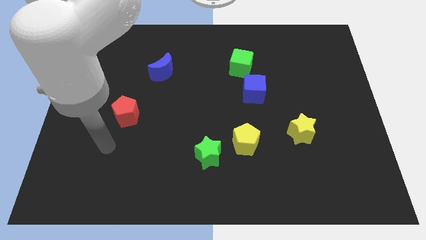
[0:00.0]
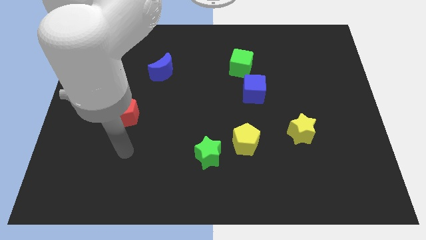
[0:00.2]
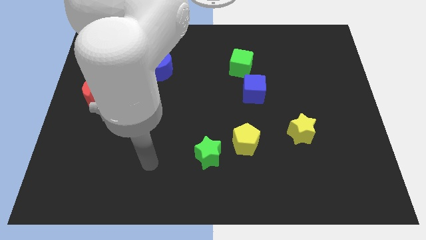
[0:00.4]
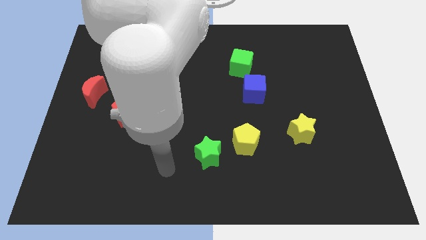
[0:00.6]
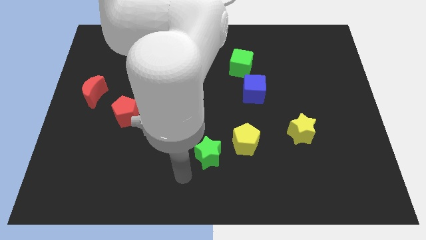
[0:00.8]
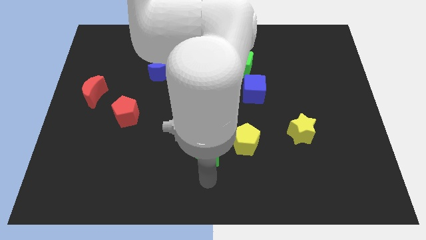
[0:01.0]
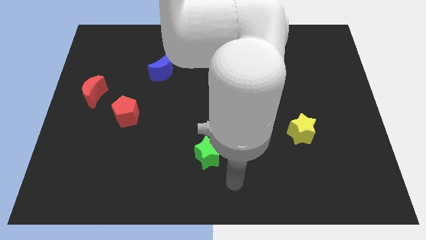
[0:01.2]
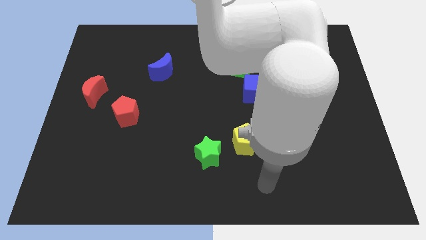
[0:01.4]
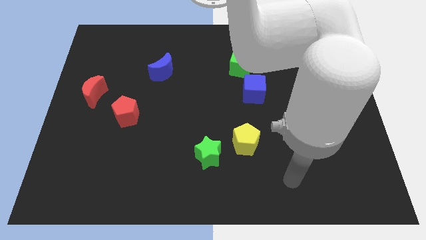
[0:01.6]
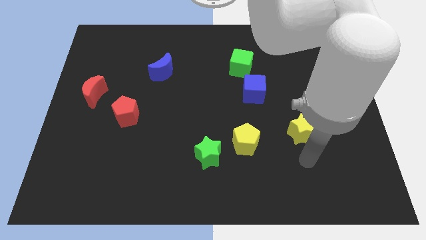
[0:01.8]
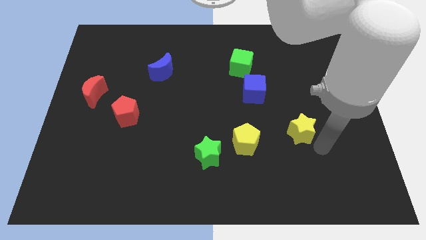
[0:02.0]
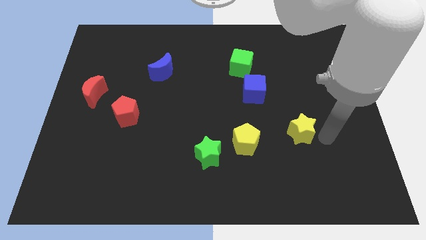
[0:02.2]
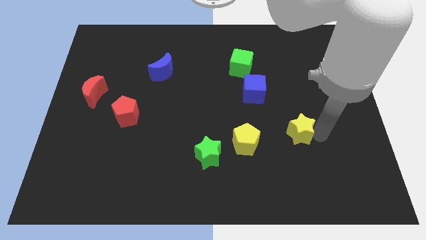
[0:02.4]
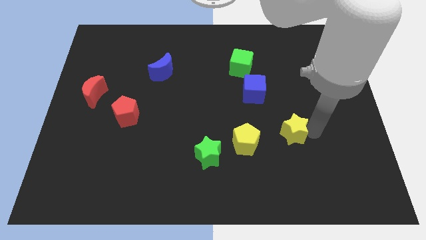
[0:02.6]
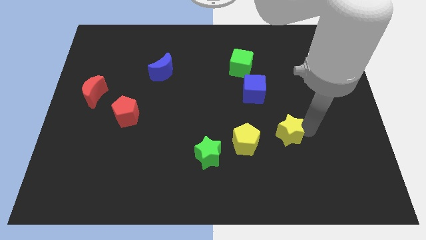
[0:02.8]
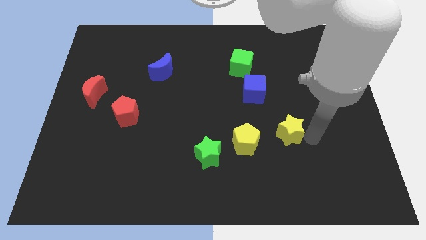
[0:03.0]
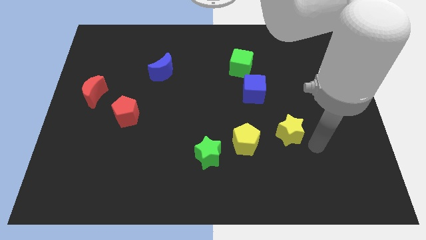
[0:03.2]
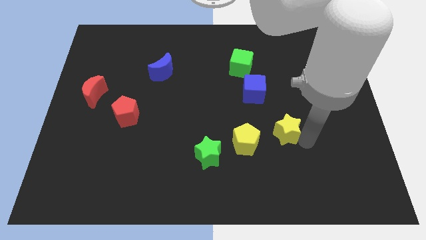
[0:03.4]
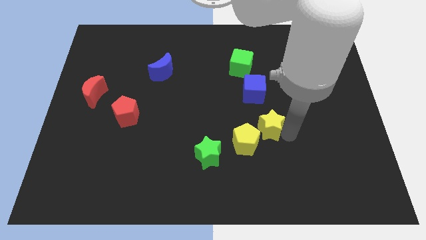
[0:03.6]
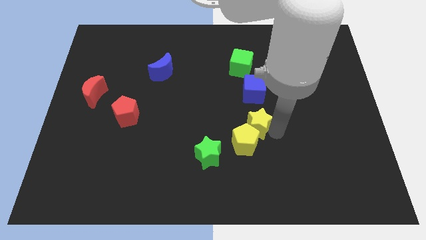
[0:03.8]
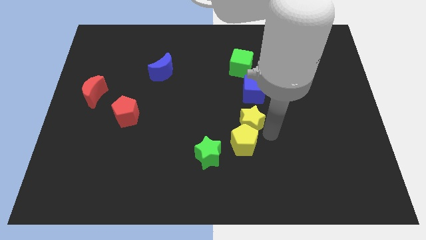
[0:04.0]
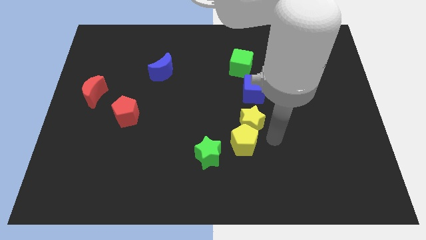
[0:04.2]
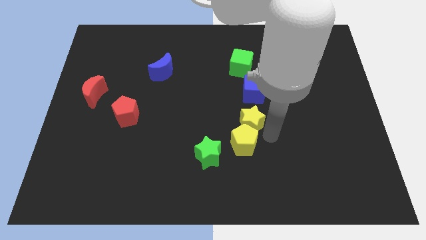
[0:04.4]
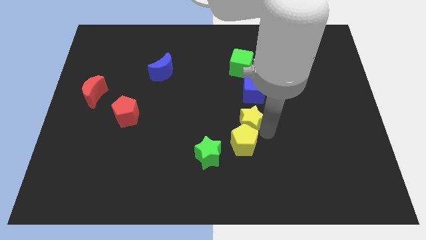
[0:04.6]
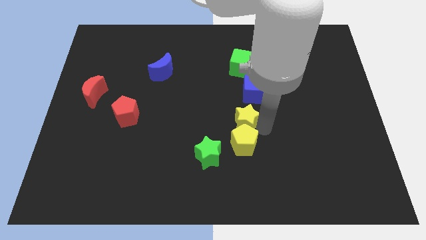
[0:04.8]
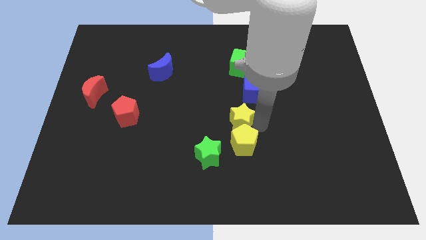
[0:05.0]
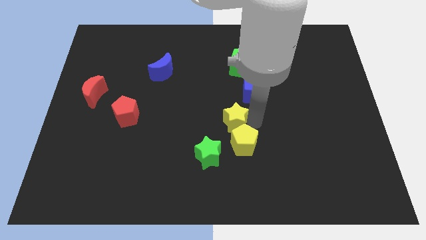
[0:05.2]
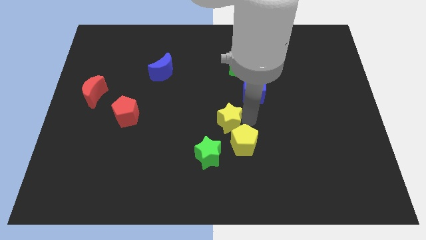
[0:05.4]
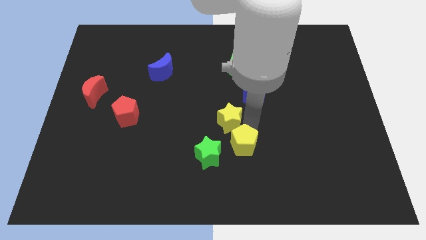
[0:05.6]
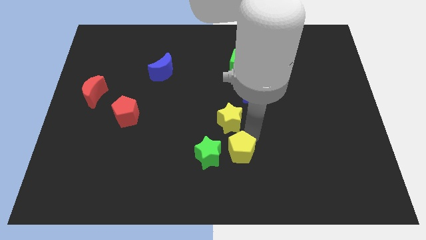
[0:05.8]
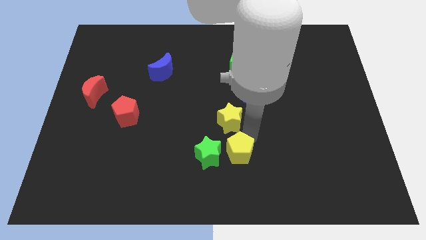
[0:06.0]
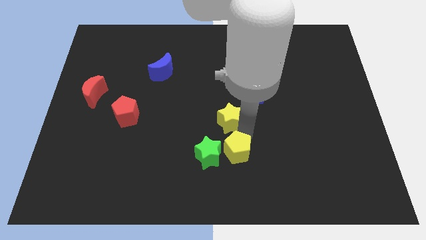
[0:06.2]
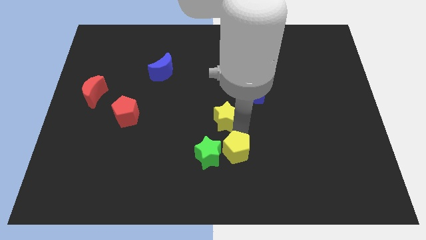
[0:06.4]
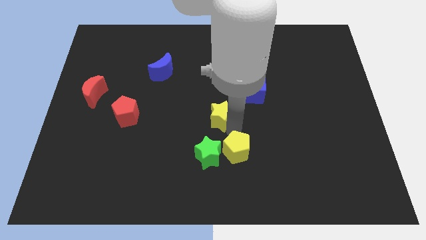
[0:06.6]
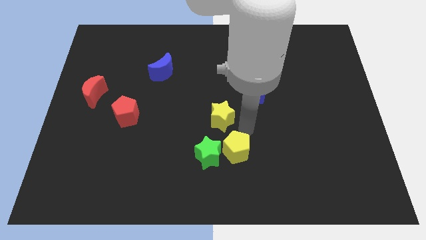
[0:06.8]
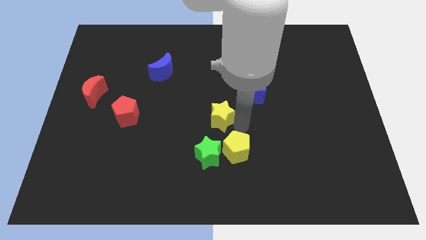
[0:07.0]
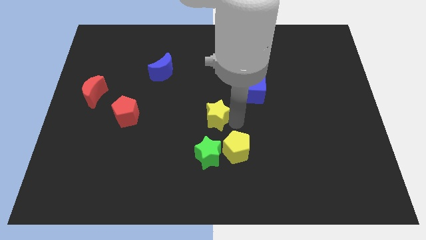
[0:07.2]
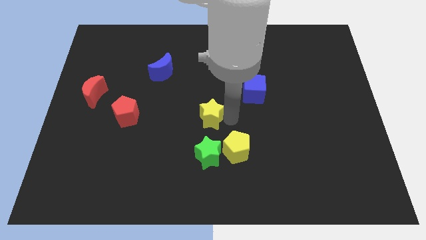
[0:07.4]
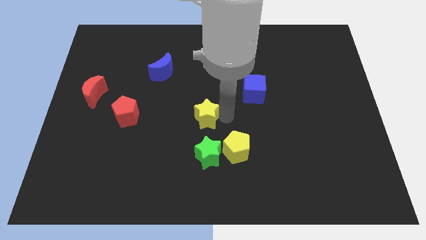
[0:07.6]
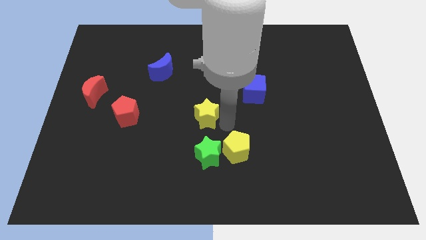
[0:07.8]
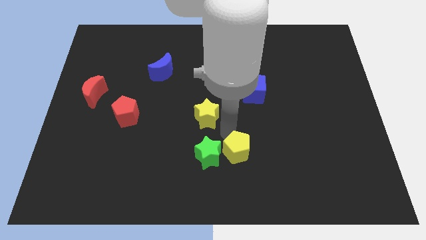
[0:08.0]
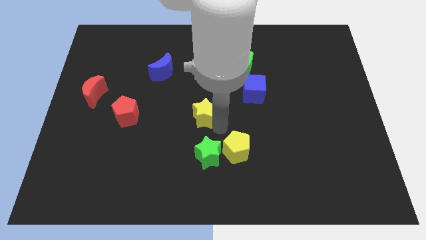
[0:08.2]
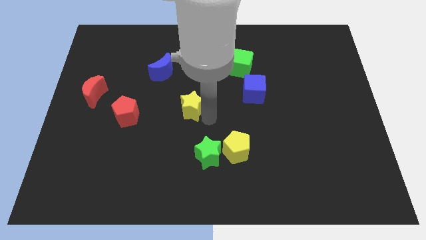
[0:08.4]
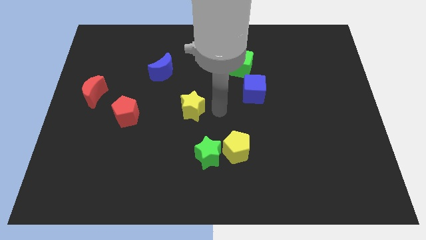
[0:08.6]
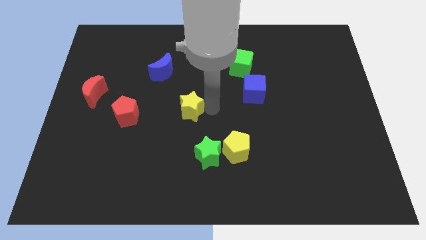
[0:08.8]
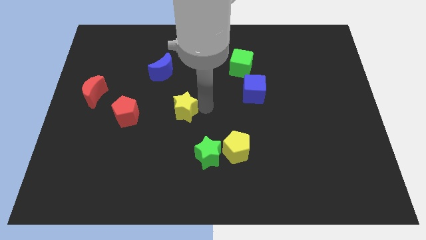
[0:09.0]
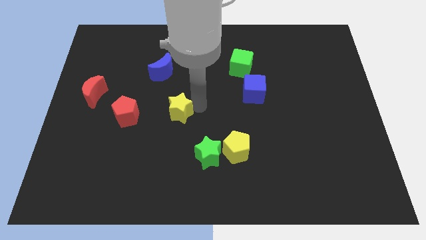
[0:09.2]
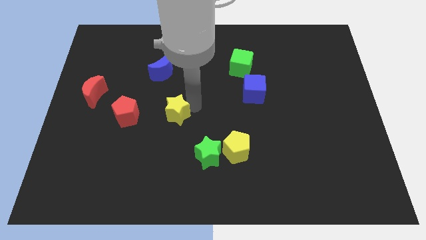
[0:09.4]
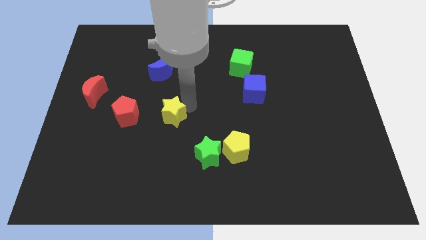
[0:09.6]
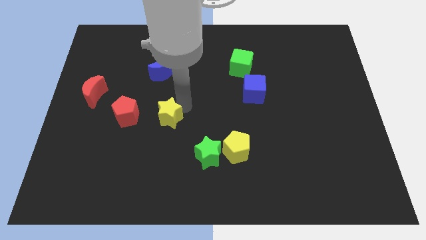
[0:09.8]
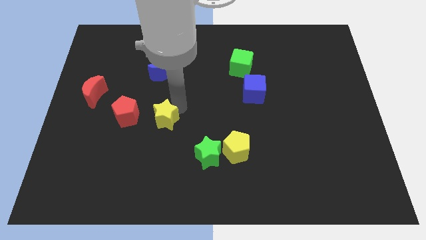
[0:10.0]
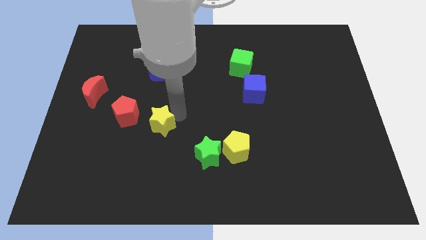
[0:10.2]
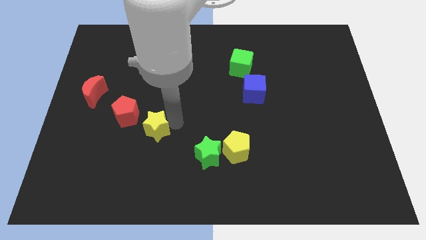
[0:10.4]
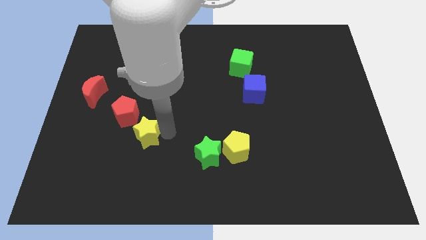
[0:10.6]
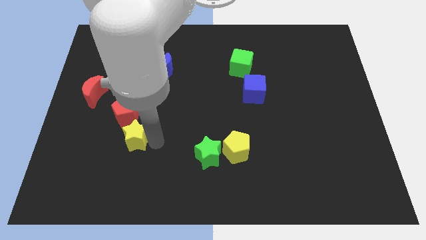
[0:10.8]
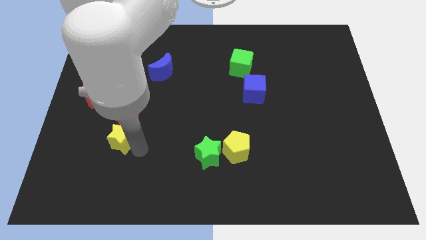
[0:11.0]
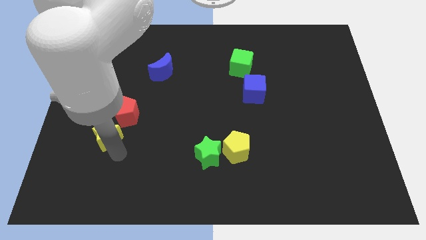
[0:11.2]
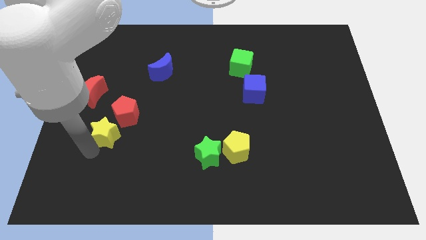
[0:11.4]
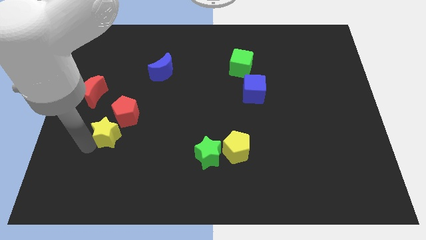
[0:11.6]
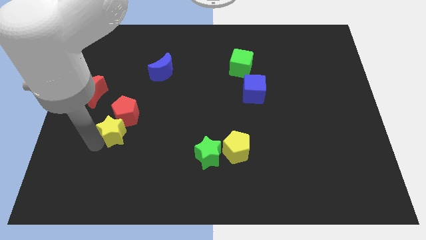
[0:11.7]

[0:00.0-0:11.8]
slide the yellow star close to the red pentagon

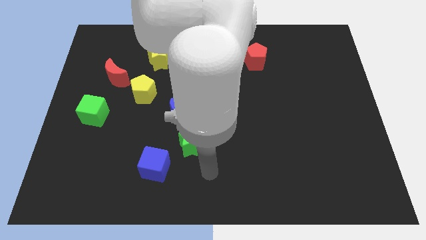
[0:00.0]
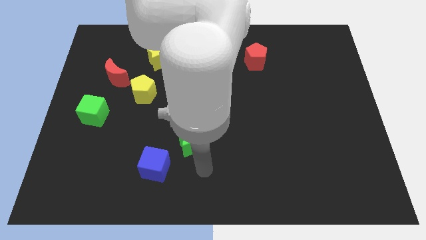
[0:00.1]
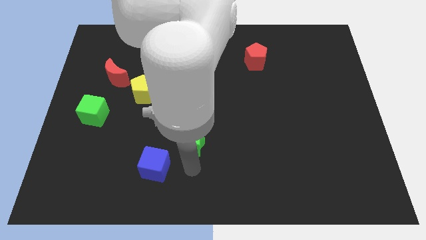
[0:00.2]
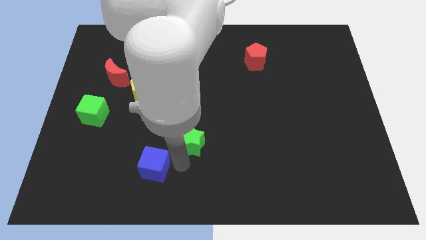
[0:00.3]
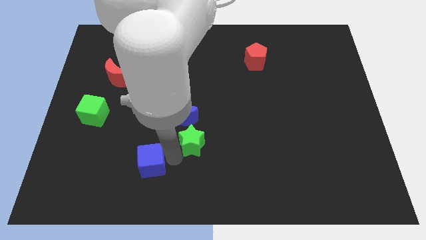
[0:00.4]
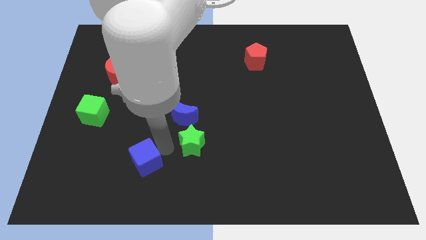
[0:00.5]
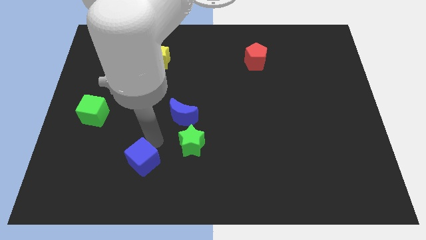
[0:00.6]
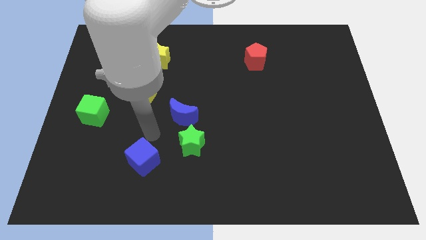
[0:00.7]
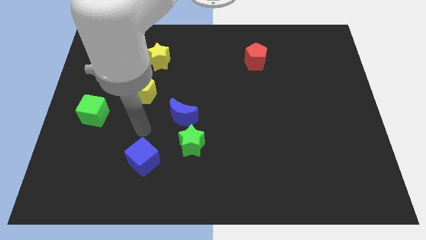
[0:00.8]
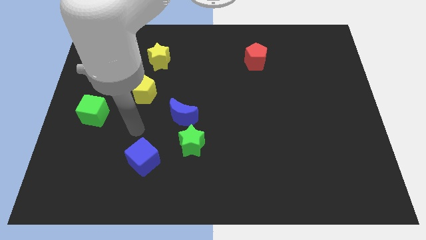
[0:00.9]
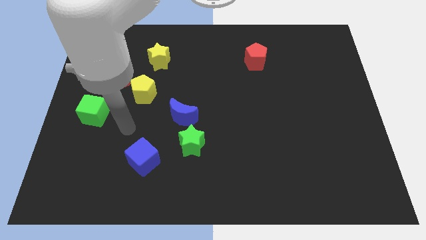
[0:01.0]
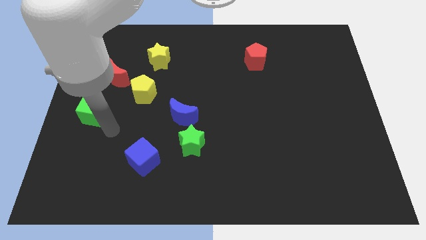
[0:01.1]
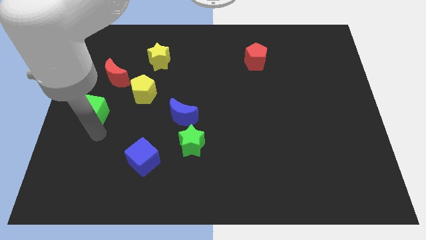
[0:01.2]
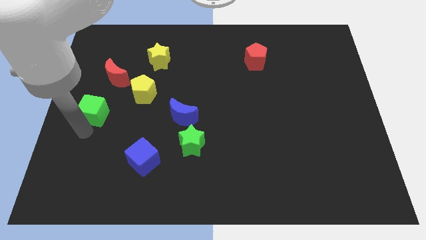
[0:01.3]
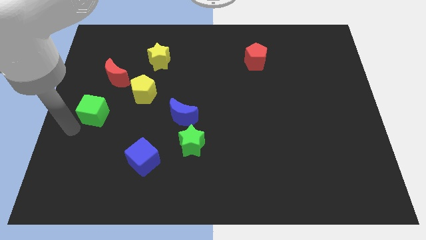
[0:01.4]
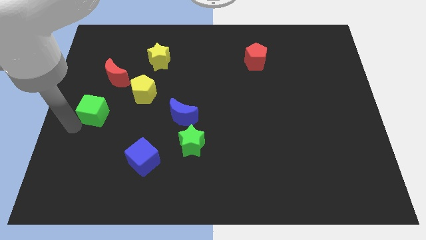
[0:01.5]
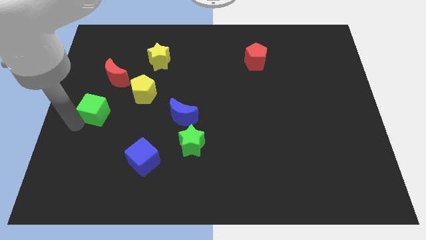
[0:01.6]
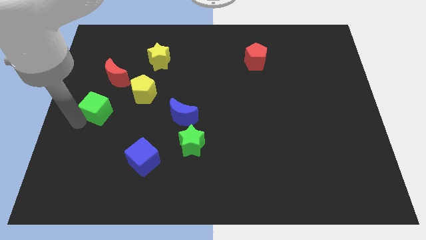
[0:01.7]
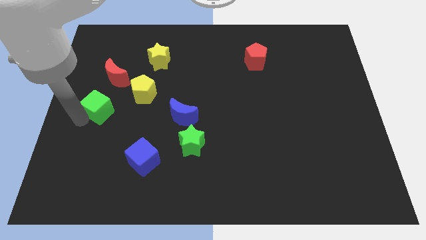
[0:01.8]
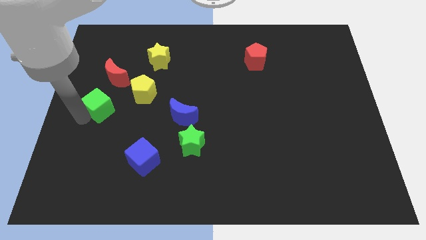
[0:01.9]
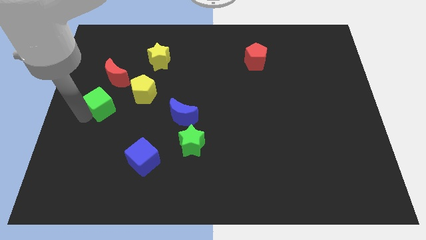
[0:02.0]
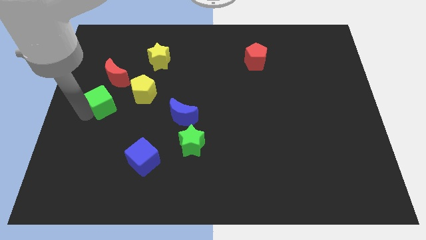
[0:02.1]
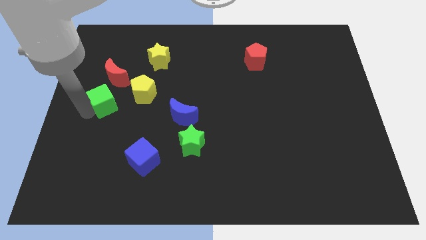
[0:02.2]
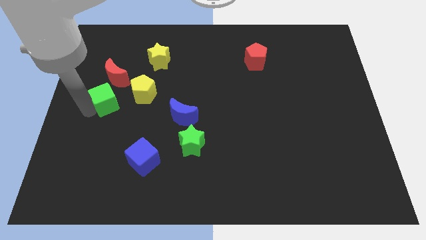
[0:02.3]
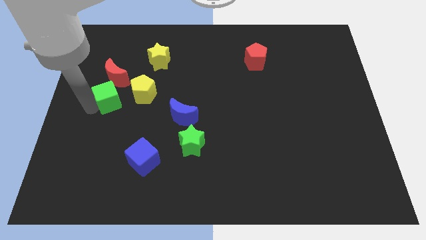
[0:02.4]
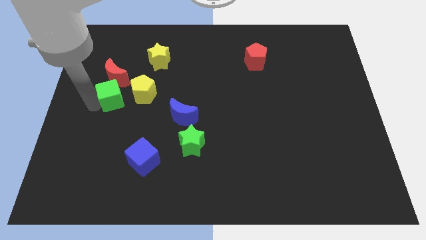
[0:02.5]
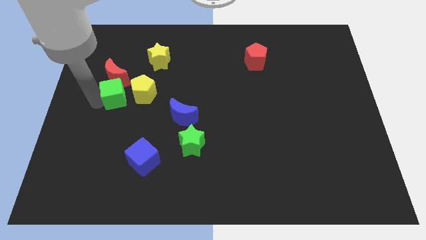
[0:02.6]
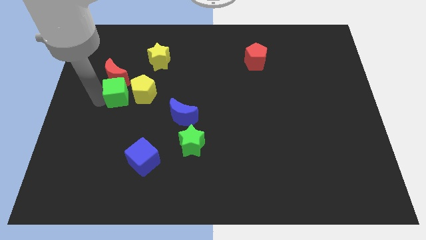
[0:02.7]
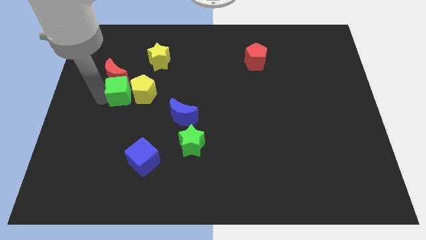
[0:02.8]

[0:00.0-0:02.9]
slide the green cube close to the yellow pentagon
